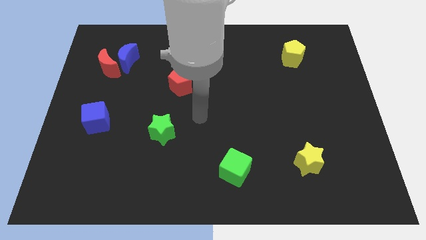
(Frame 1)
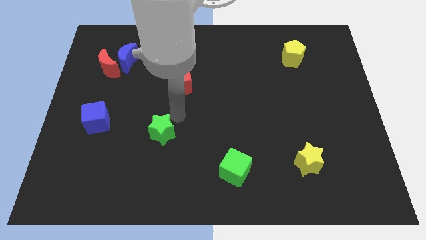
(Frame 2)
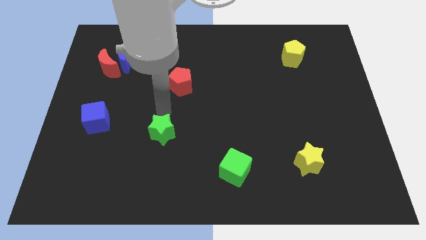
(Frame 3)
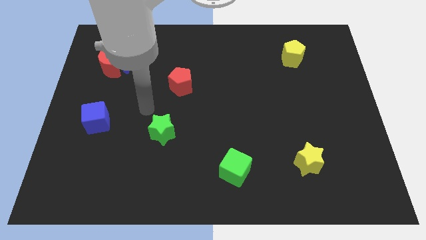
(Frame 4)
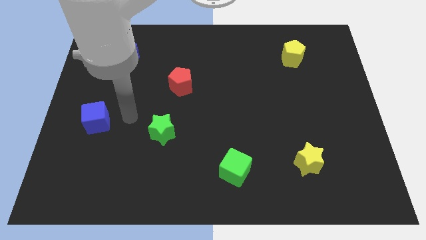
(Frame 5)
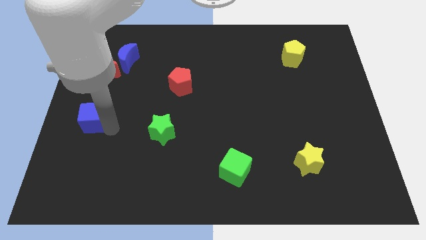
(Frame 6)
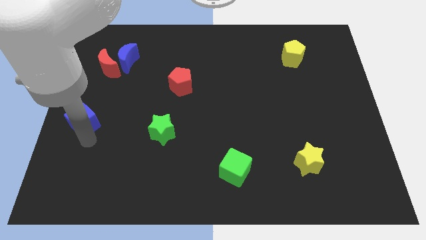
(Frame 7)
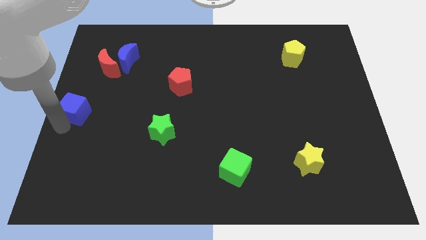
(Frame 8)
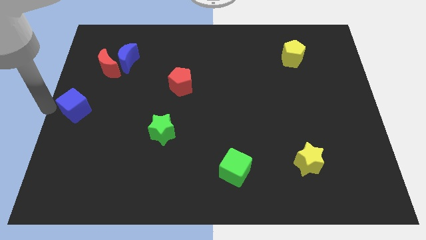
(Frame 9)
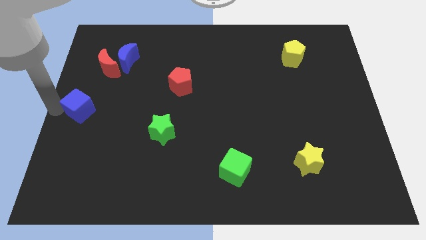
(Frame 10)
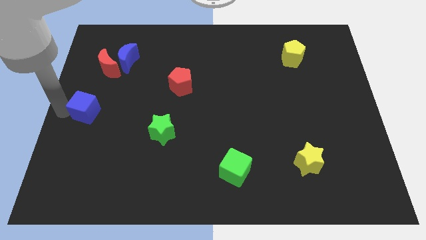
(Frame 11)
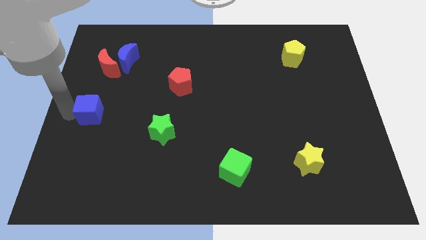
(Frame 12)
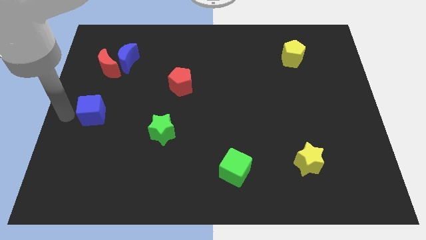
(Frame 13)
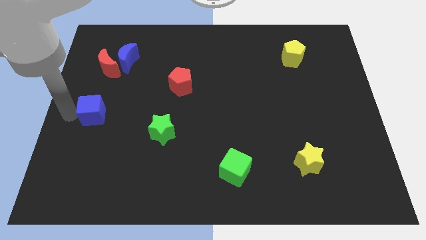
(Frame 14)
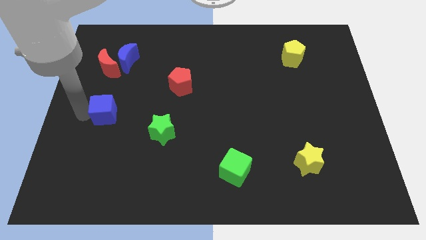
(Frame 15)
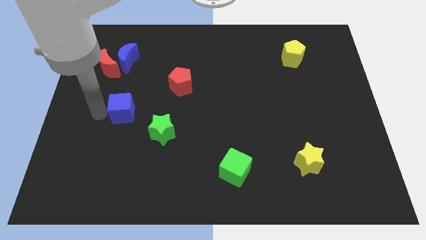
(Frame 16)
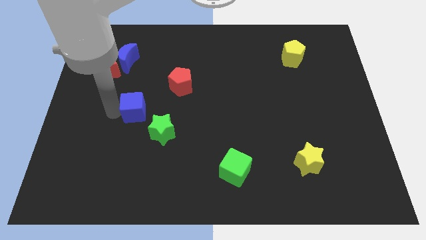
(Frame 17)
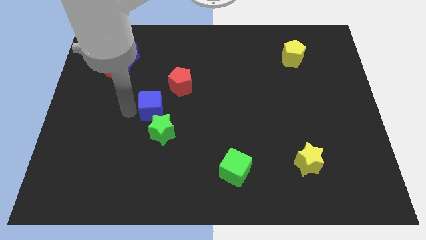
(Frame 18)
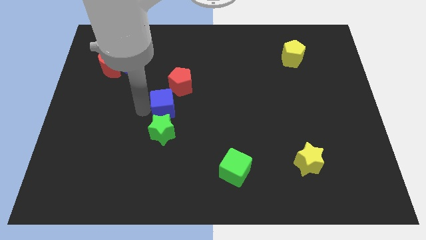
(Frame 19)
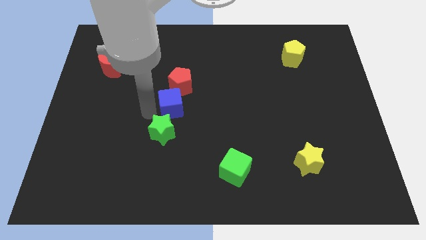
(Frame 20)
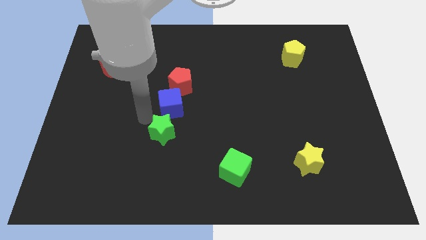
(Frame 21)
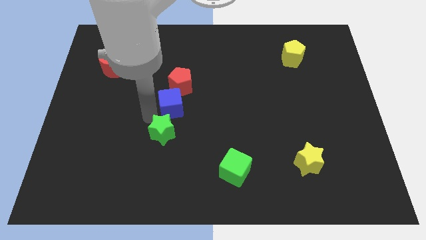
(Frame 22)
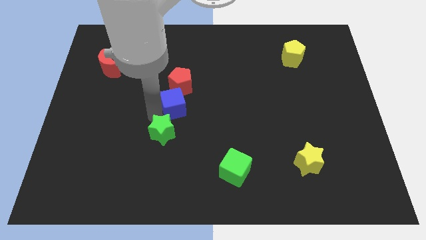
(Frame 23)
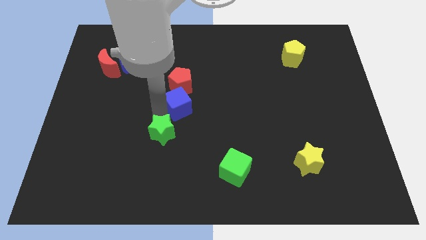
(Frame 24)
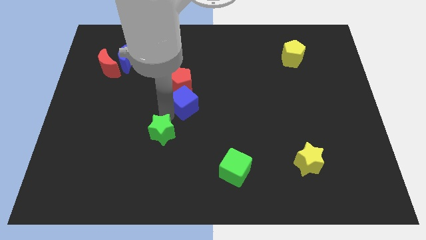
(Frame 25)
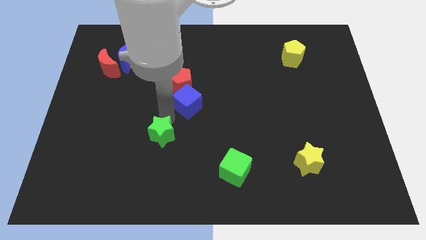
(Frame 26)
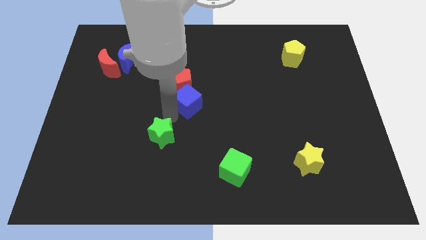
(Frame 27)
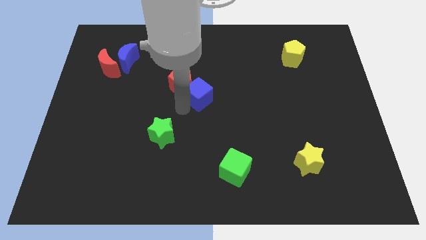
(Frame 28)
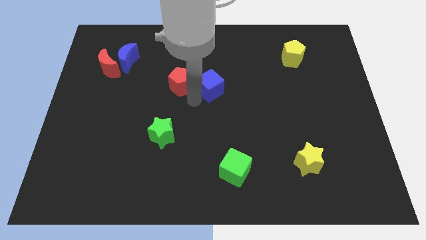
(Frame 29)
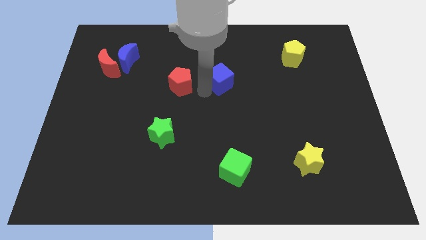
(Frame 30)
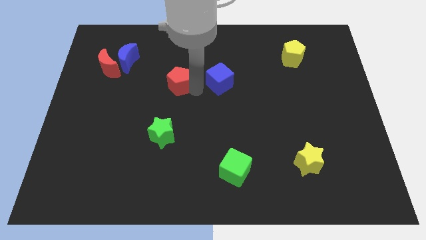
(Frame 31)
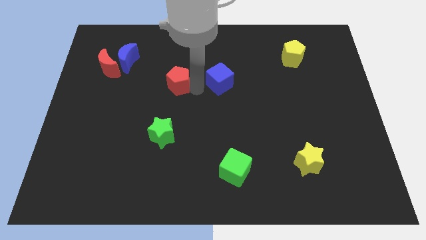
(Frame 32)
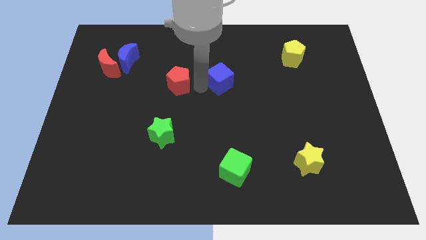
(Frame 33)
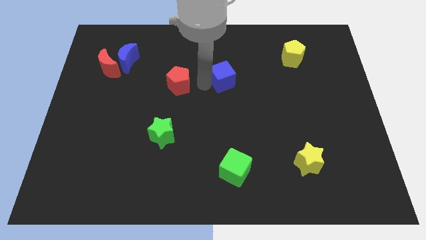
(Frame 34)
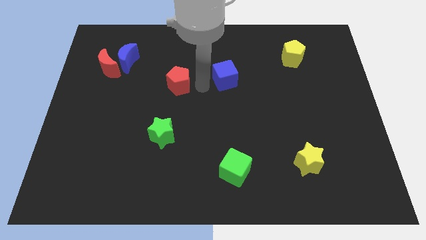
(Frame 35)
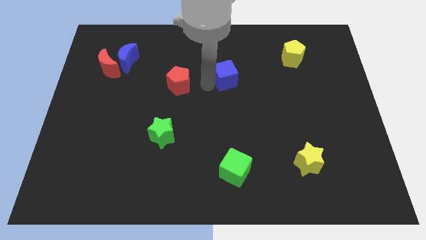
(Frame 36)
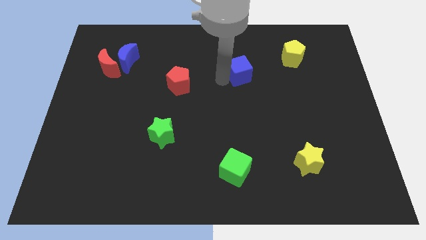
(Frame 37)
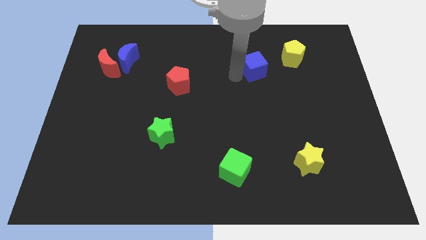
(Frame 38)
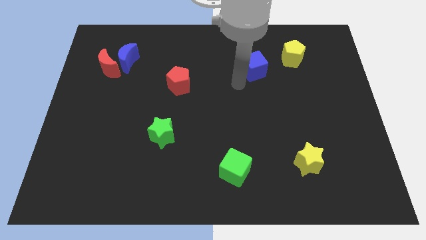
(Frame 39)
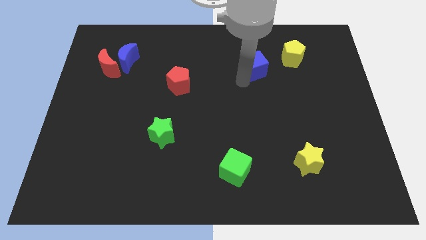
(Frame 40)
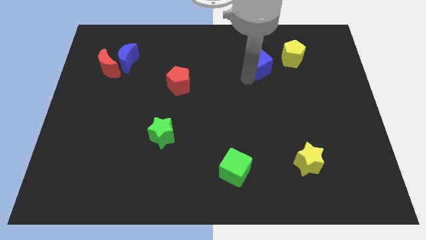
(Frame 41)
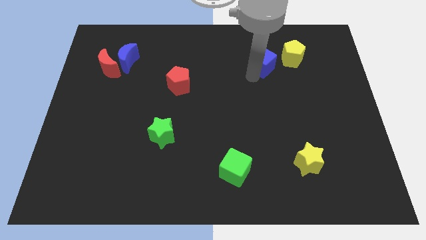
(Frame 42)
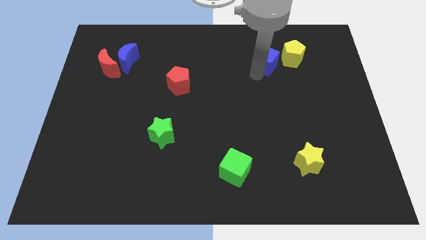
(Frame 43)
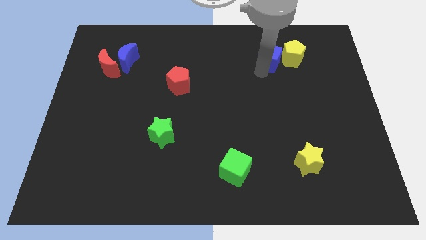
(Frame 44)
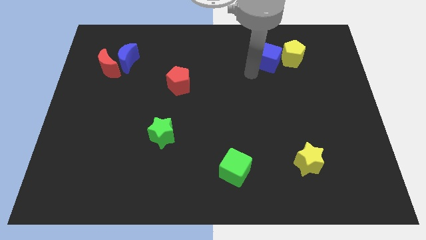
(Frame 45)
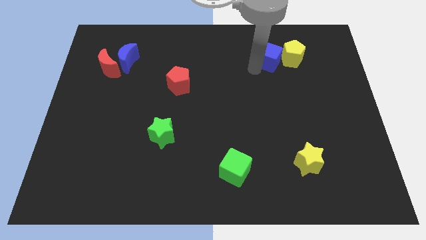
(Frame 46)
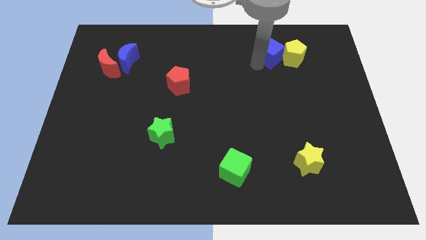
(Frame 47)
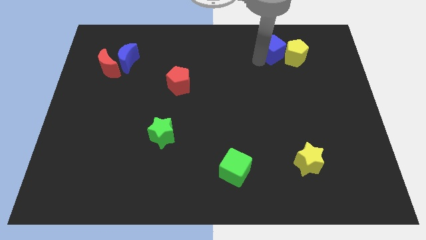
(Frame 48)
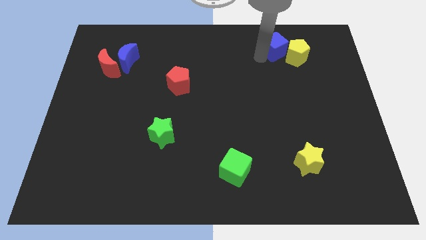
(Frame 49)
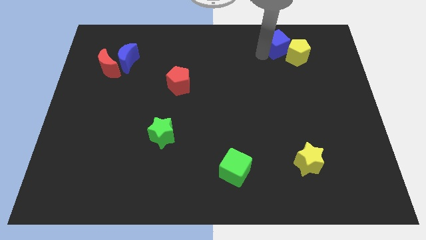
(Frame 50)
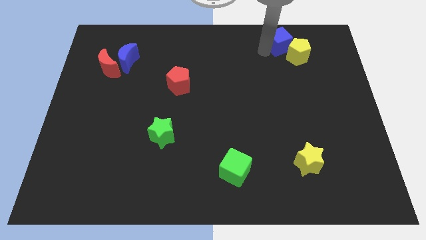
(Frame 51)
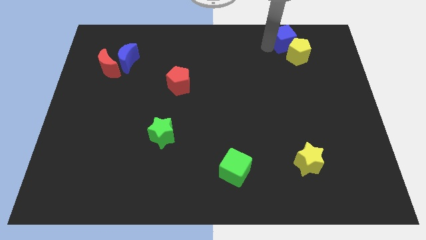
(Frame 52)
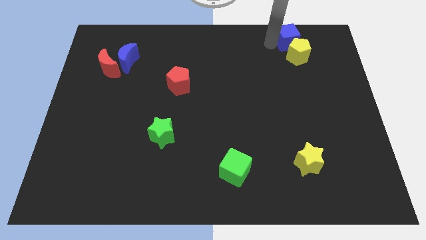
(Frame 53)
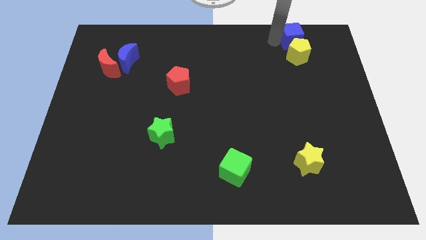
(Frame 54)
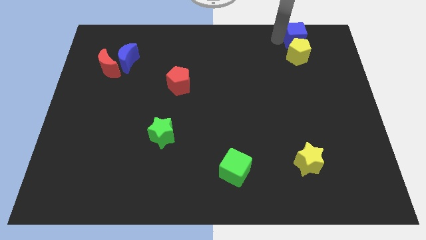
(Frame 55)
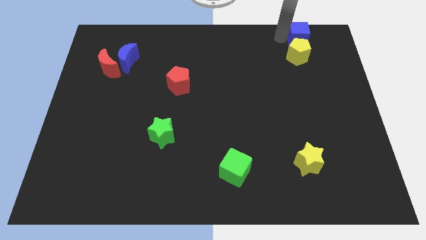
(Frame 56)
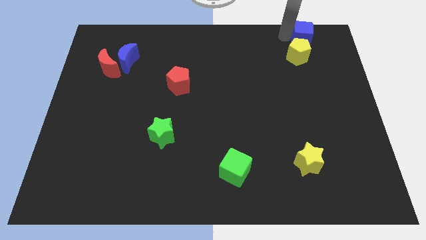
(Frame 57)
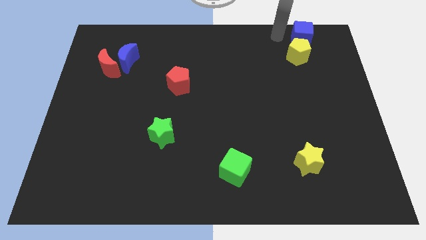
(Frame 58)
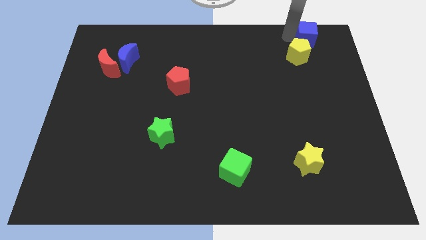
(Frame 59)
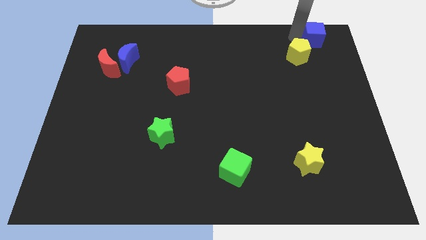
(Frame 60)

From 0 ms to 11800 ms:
put the blue cube to the upper right corner
